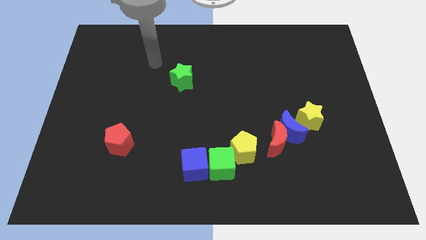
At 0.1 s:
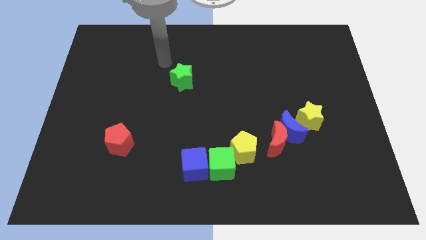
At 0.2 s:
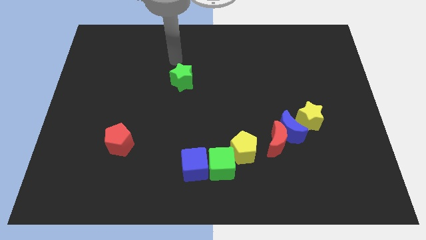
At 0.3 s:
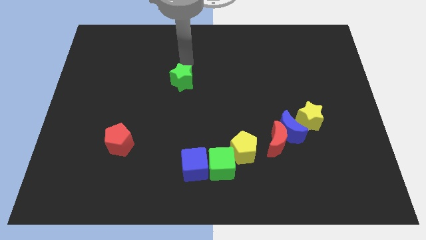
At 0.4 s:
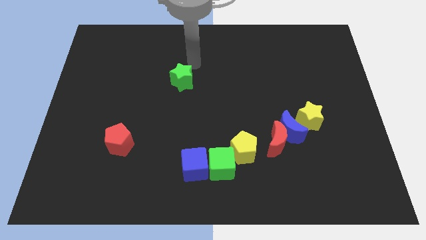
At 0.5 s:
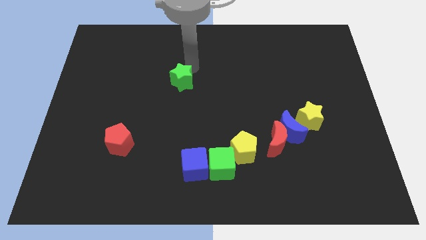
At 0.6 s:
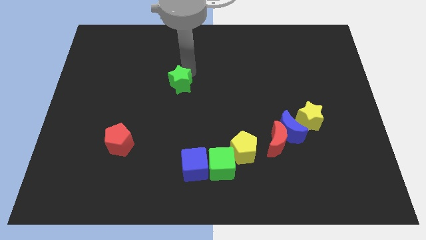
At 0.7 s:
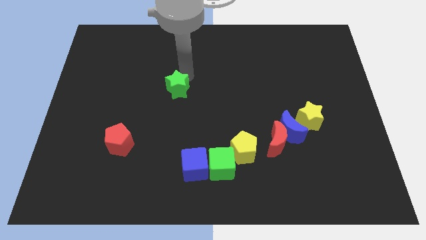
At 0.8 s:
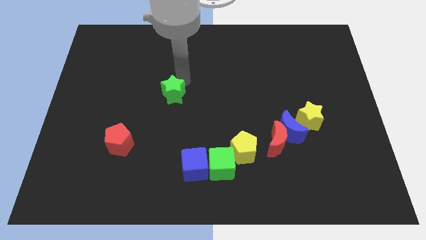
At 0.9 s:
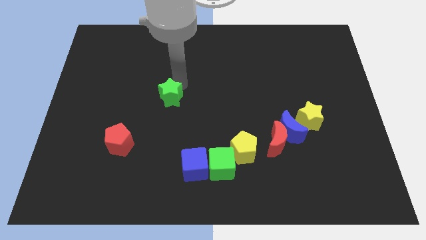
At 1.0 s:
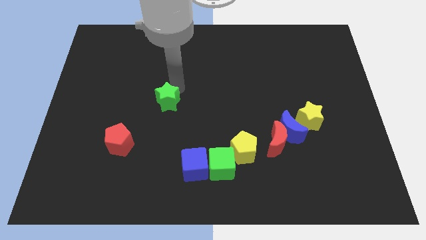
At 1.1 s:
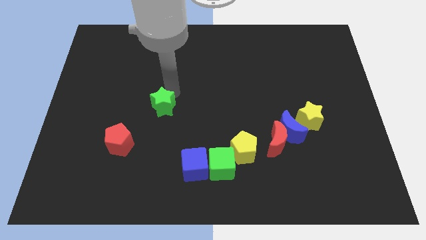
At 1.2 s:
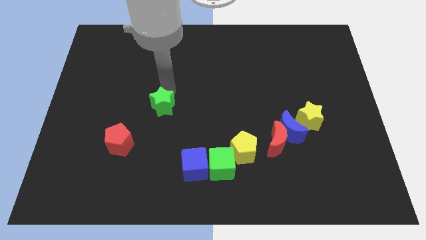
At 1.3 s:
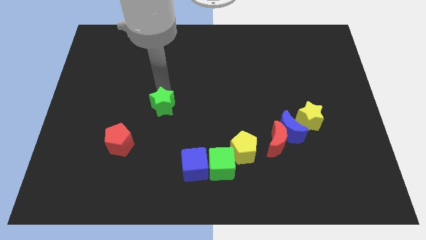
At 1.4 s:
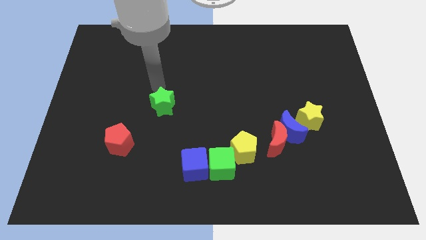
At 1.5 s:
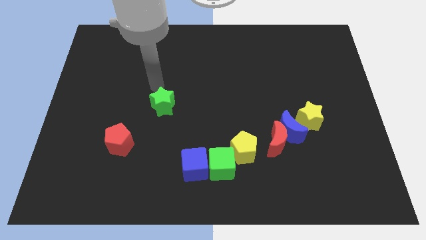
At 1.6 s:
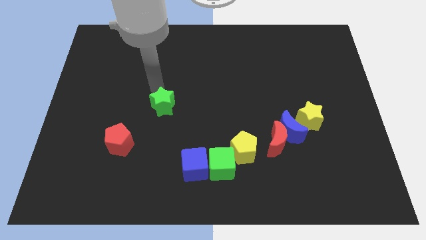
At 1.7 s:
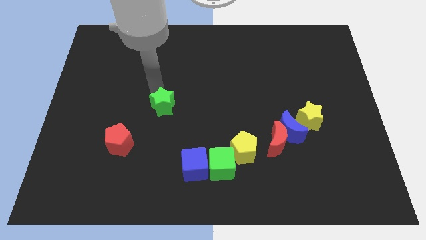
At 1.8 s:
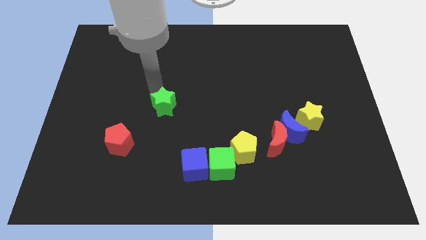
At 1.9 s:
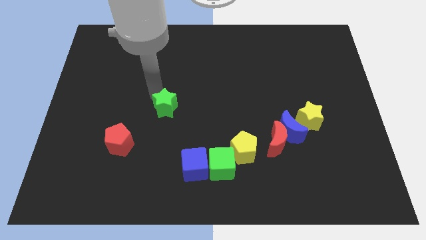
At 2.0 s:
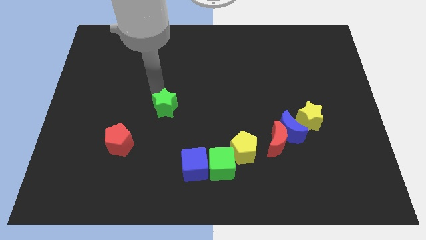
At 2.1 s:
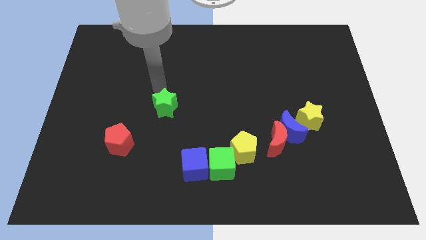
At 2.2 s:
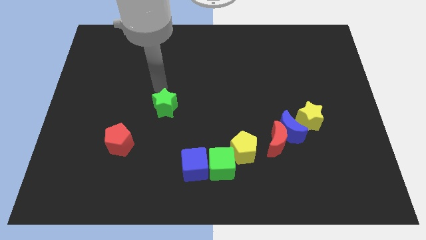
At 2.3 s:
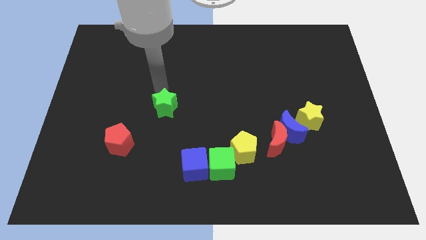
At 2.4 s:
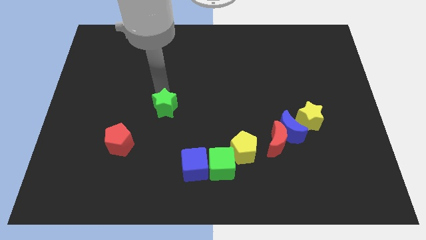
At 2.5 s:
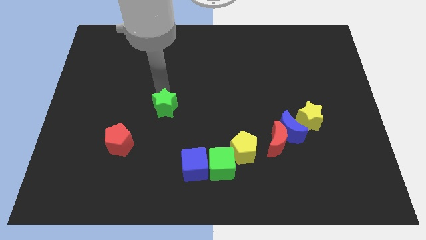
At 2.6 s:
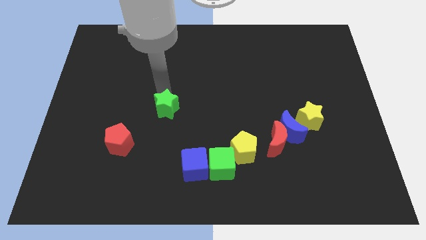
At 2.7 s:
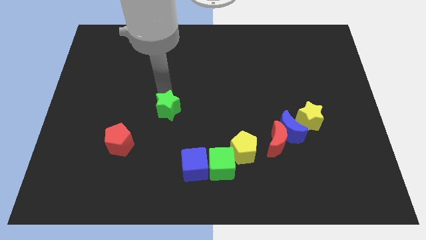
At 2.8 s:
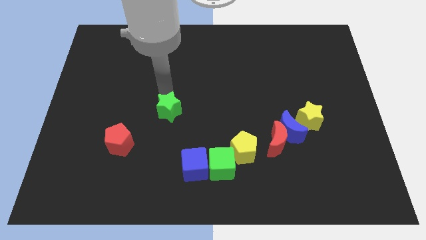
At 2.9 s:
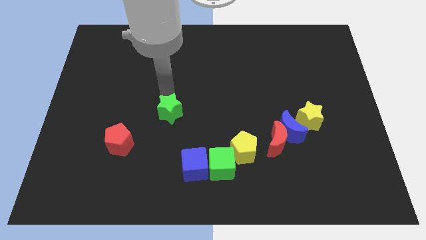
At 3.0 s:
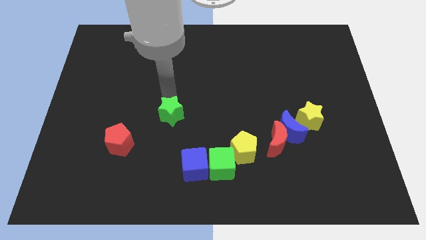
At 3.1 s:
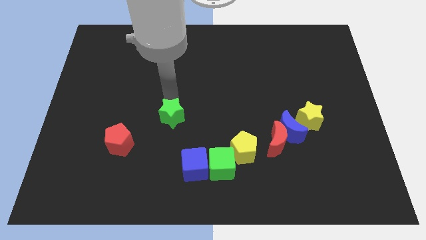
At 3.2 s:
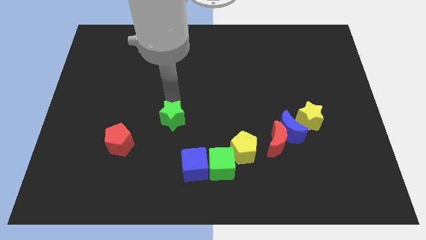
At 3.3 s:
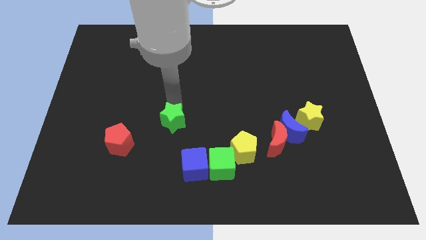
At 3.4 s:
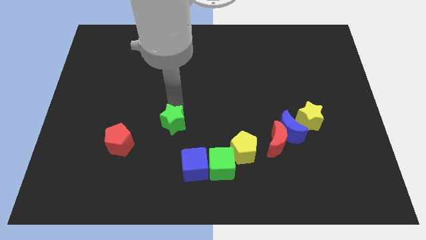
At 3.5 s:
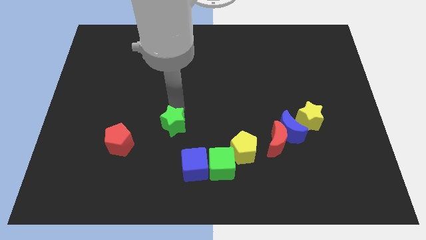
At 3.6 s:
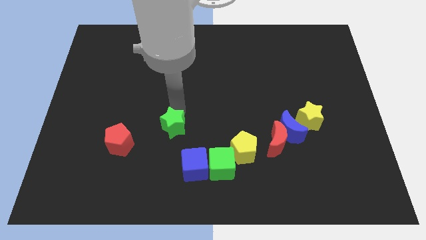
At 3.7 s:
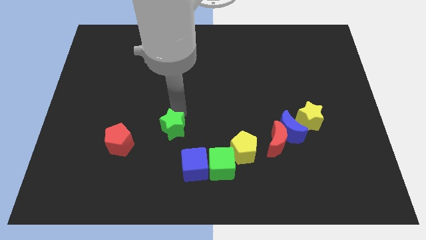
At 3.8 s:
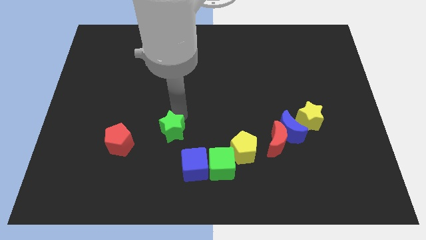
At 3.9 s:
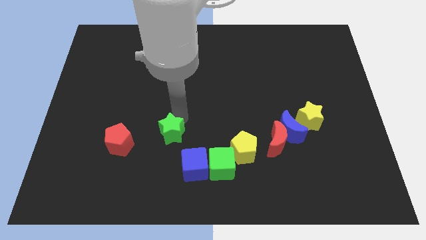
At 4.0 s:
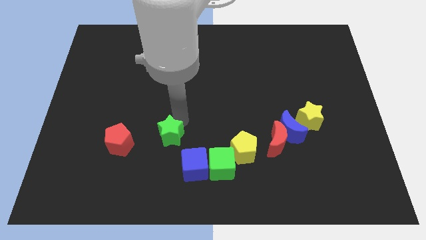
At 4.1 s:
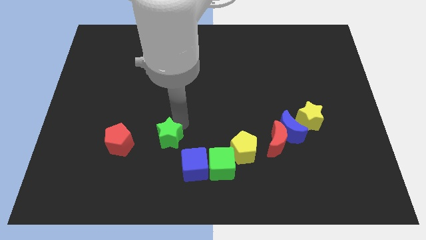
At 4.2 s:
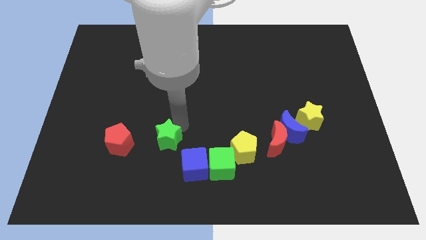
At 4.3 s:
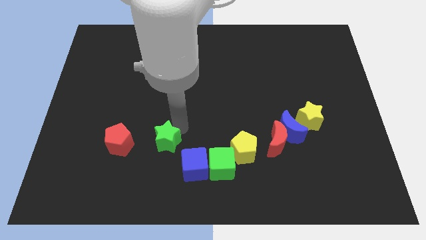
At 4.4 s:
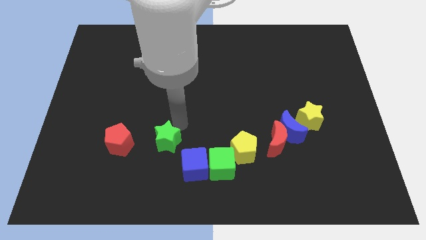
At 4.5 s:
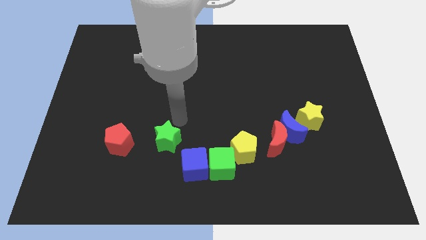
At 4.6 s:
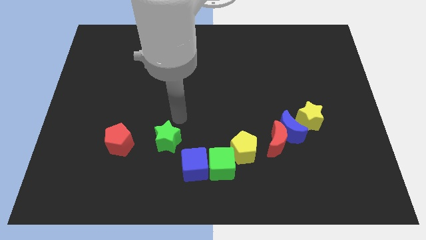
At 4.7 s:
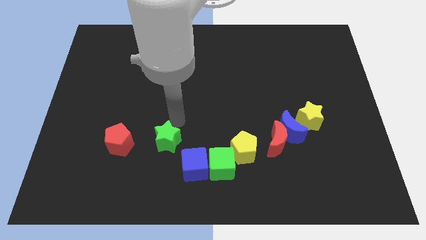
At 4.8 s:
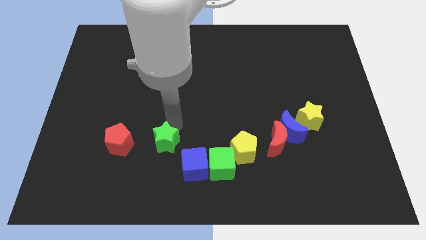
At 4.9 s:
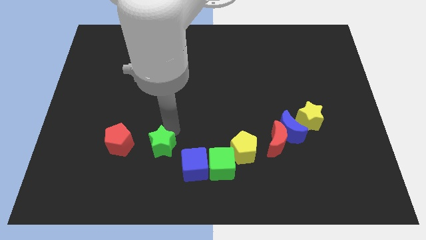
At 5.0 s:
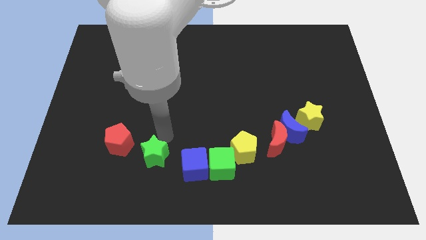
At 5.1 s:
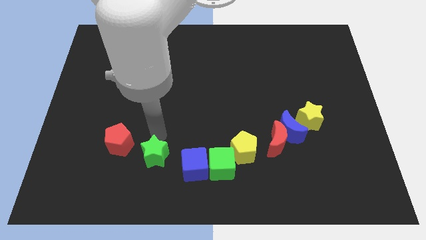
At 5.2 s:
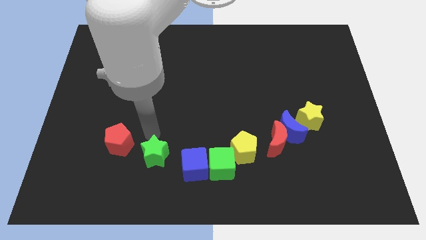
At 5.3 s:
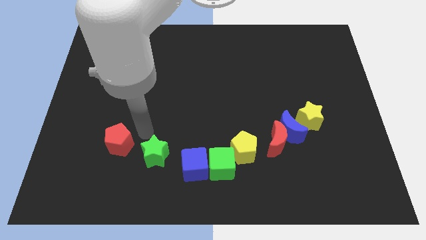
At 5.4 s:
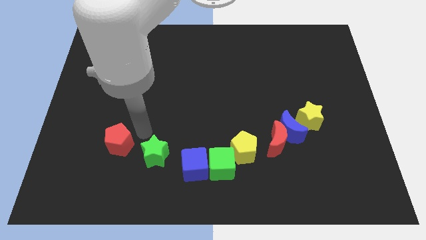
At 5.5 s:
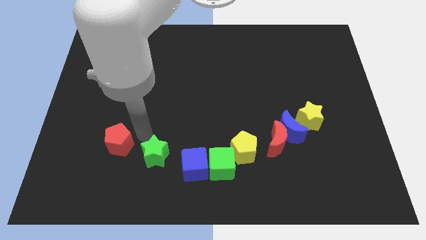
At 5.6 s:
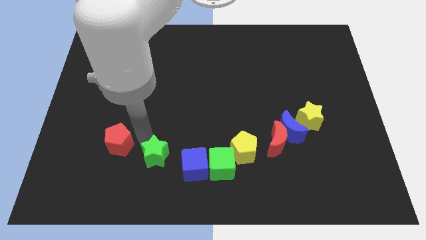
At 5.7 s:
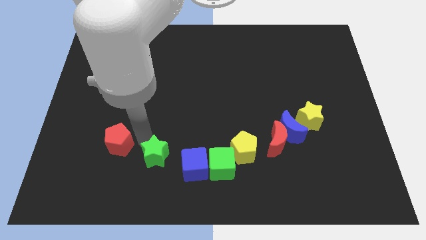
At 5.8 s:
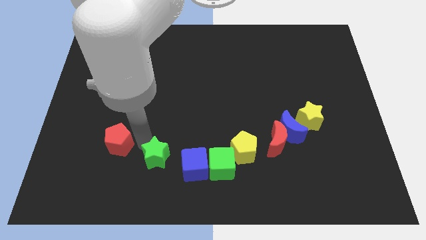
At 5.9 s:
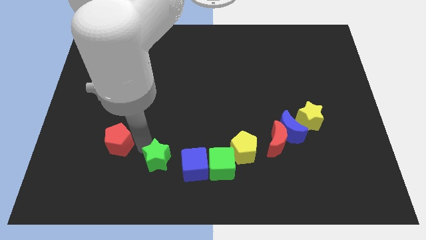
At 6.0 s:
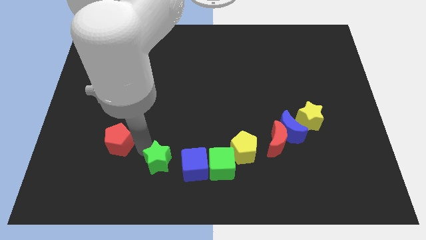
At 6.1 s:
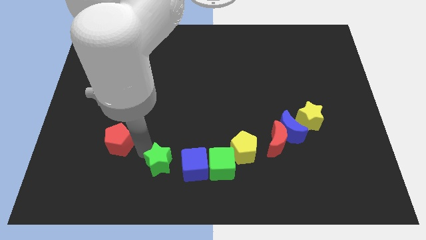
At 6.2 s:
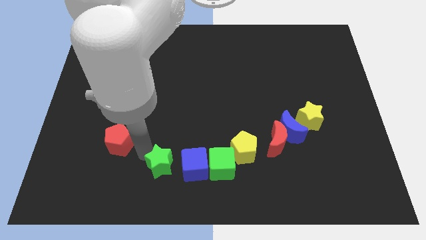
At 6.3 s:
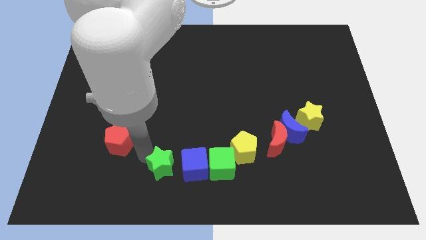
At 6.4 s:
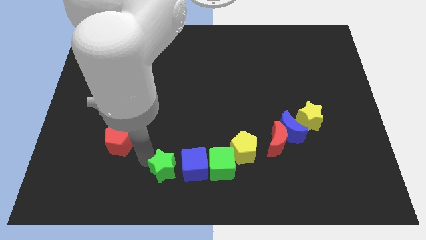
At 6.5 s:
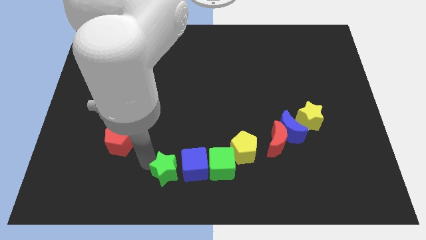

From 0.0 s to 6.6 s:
push the green star to the bottom
